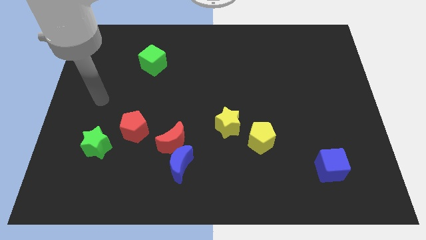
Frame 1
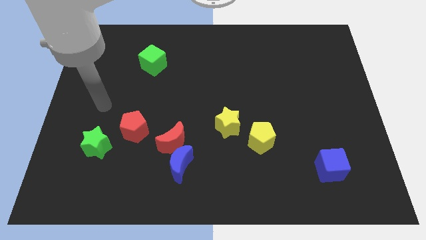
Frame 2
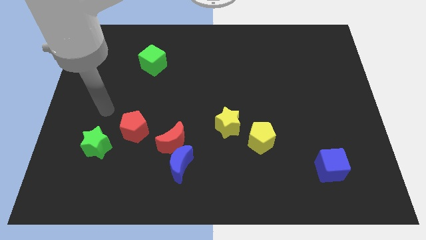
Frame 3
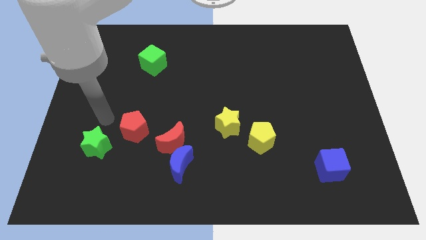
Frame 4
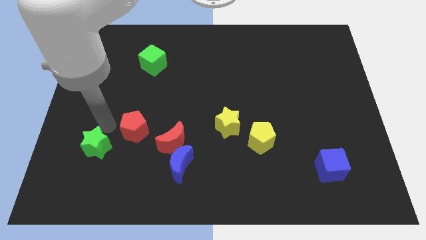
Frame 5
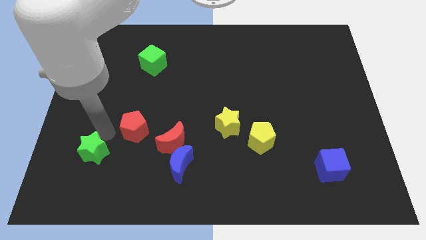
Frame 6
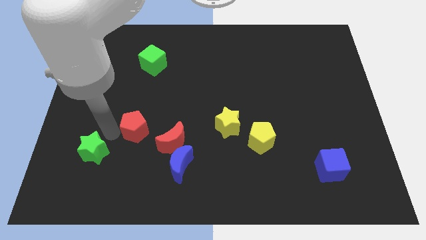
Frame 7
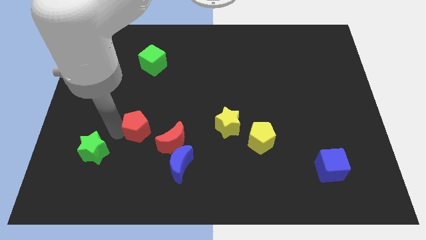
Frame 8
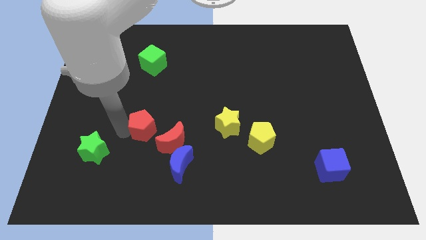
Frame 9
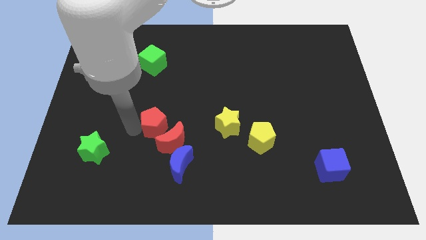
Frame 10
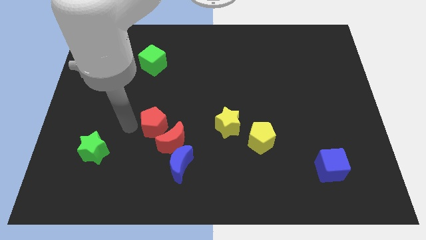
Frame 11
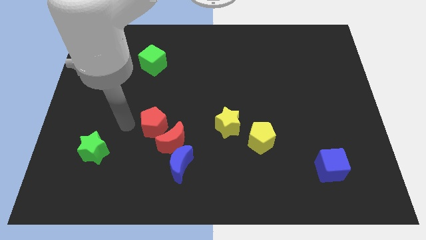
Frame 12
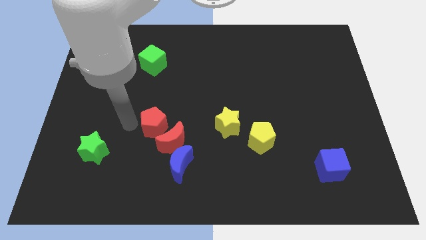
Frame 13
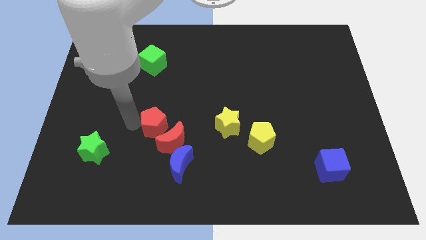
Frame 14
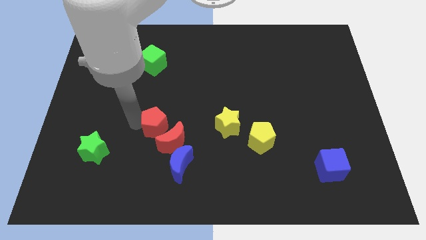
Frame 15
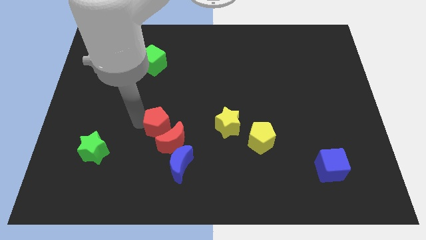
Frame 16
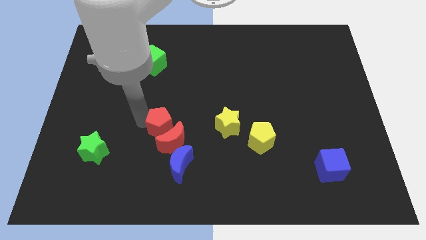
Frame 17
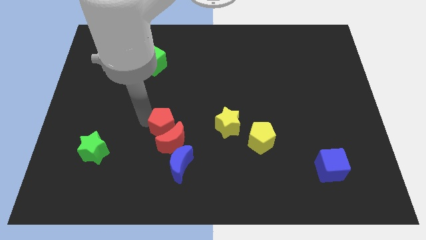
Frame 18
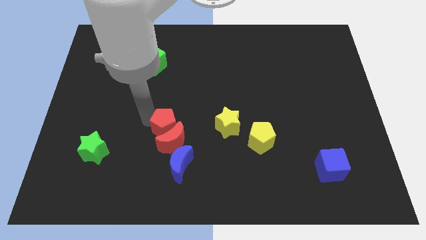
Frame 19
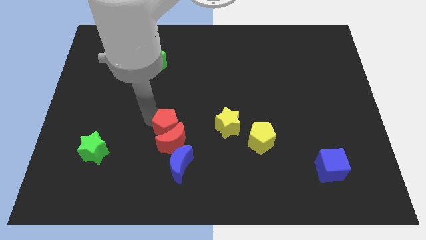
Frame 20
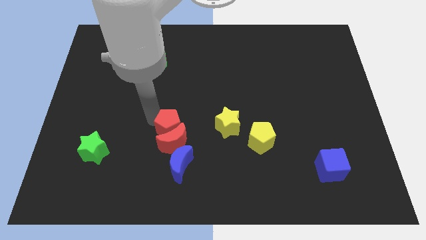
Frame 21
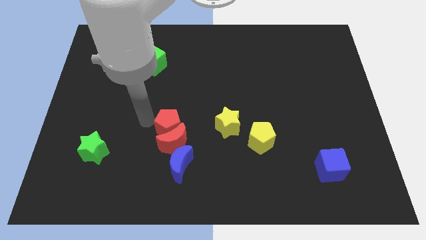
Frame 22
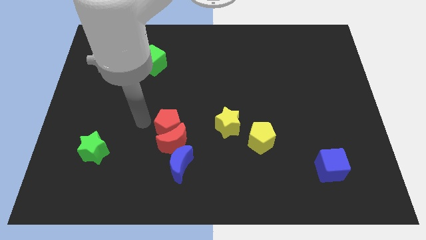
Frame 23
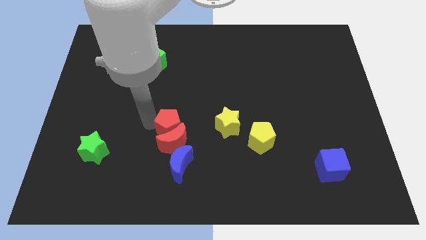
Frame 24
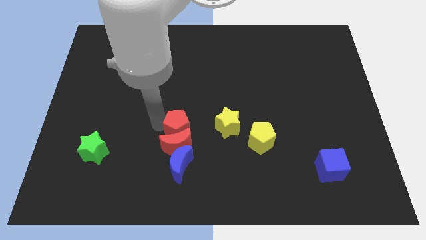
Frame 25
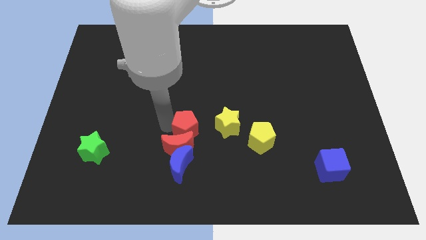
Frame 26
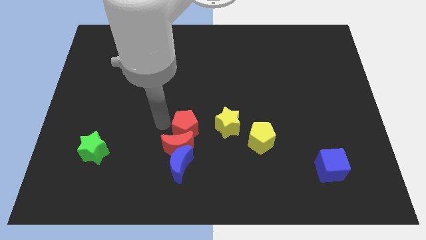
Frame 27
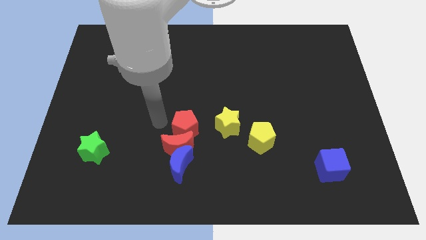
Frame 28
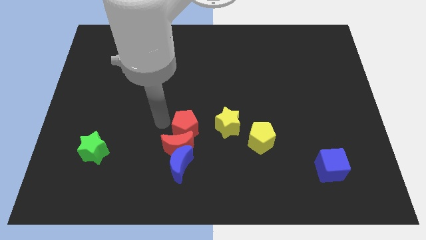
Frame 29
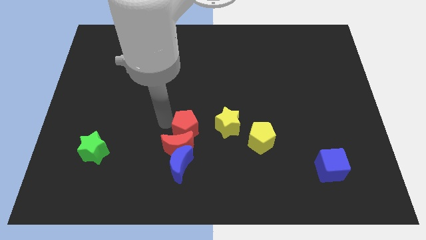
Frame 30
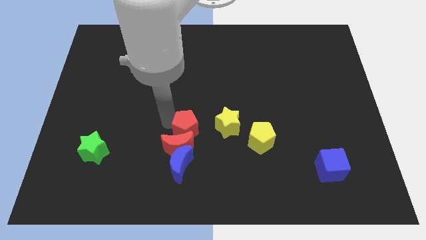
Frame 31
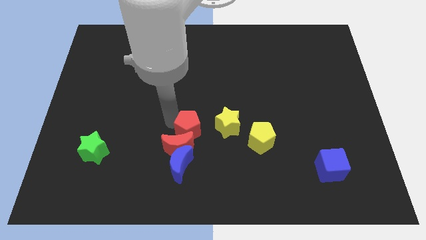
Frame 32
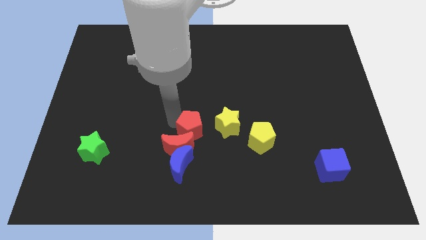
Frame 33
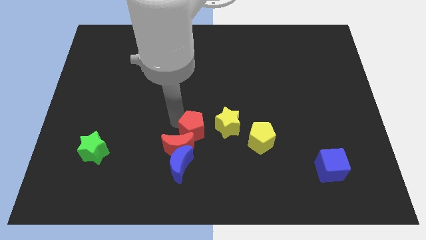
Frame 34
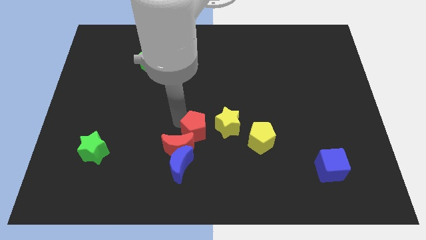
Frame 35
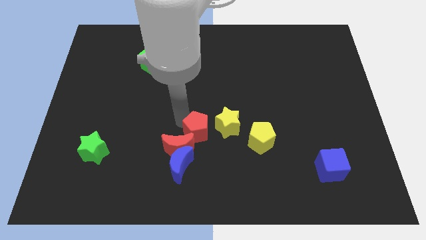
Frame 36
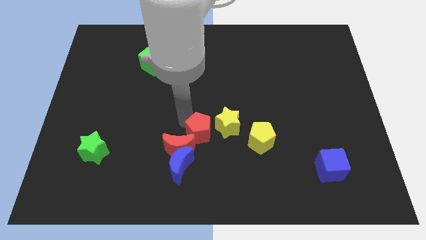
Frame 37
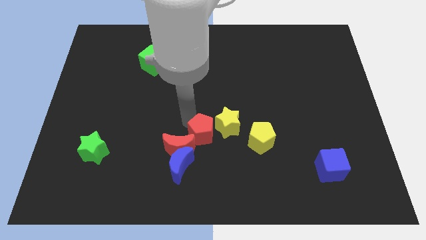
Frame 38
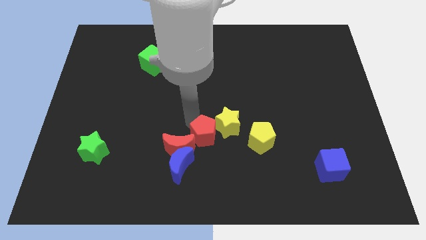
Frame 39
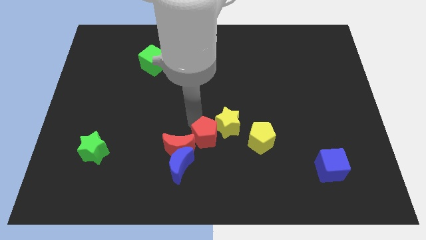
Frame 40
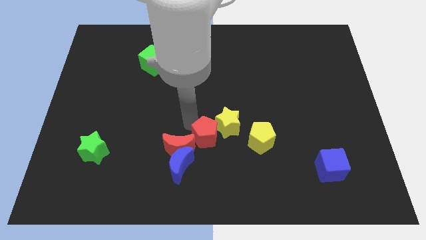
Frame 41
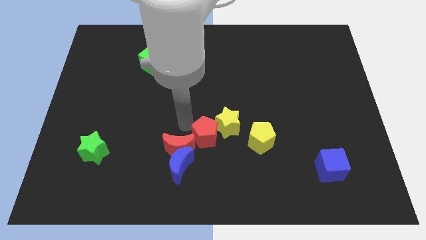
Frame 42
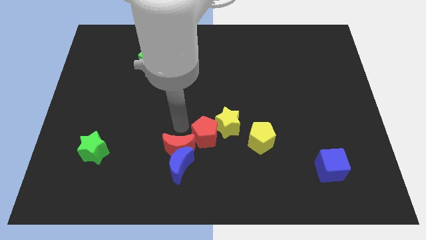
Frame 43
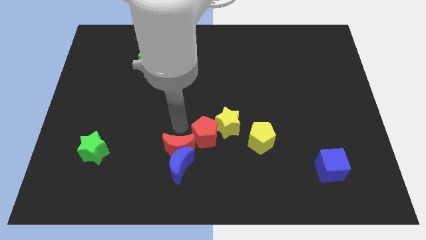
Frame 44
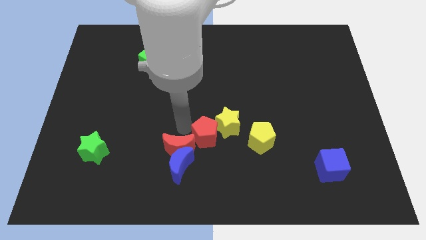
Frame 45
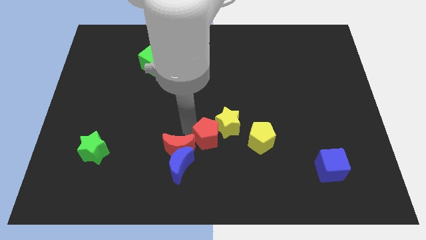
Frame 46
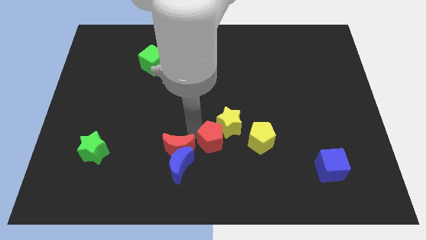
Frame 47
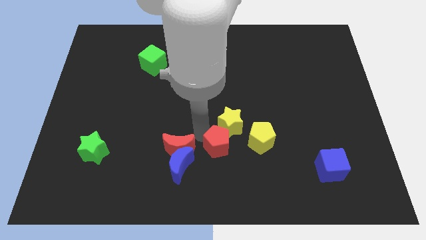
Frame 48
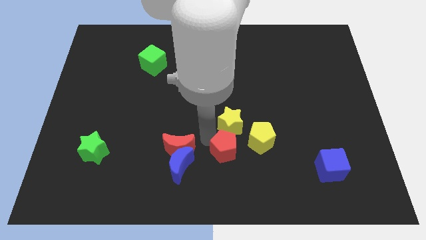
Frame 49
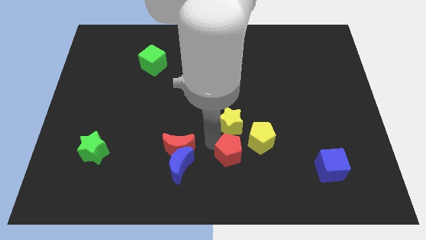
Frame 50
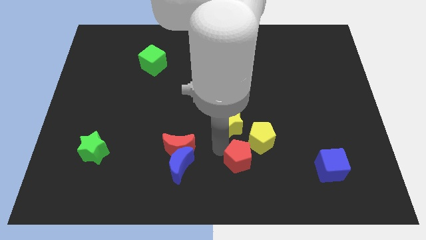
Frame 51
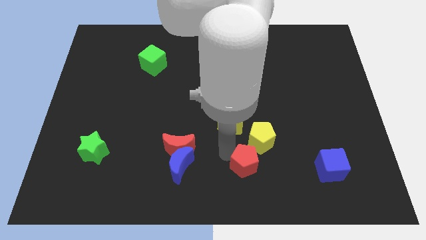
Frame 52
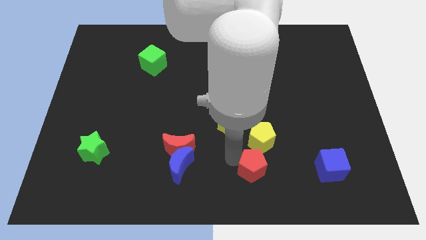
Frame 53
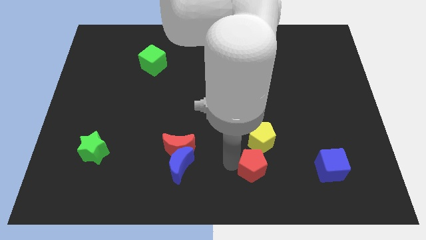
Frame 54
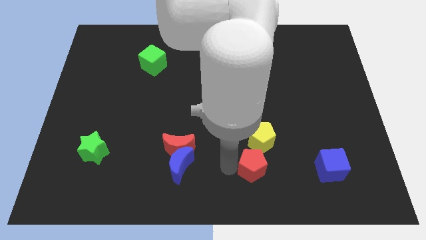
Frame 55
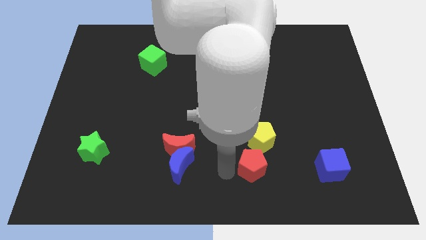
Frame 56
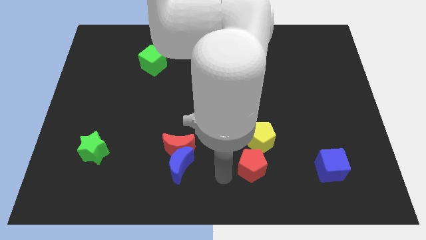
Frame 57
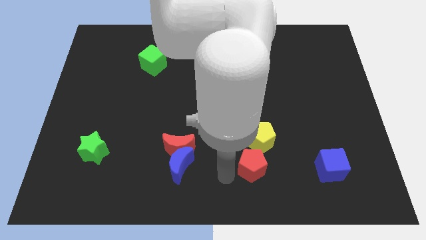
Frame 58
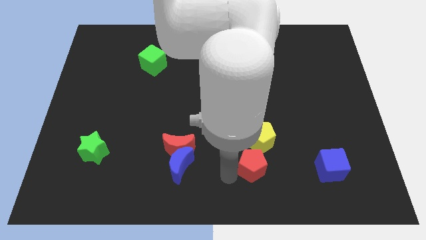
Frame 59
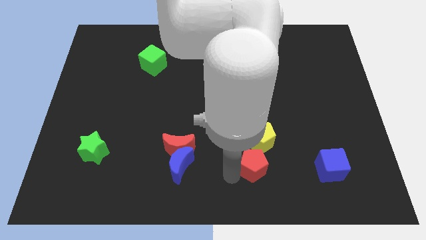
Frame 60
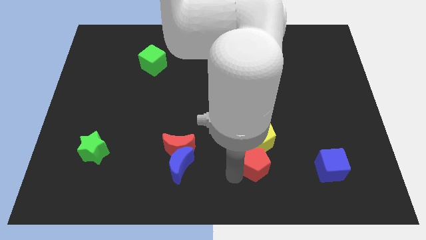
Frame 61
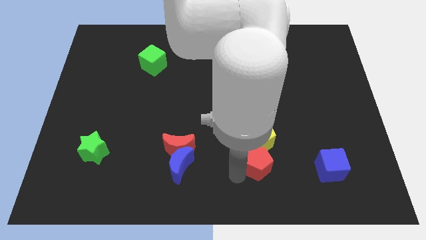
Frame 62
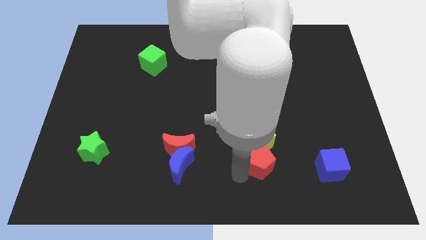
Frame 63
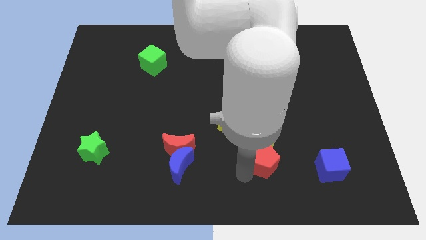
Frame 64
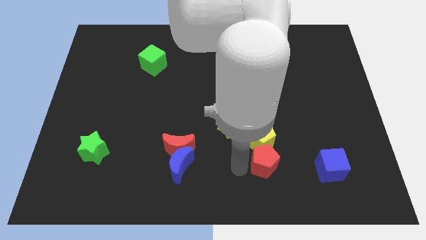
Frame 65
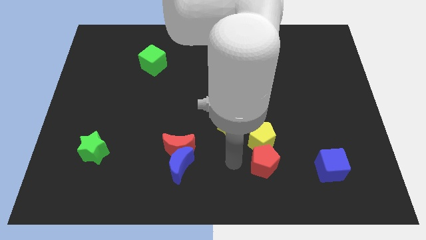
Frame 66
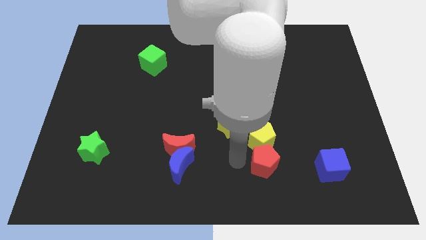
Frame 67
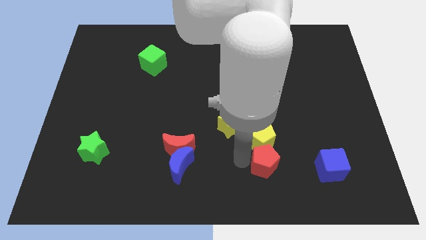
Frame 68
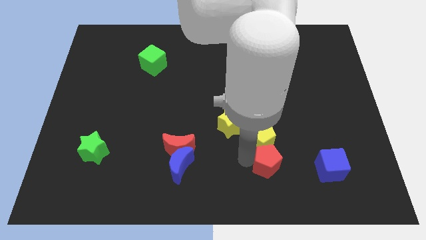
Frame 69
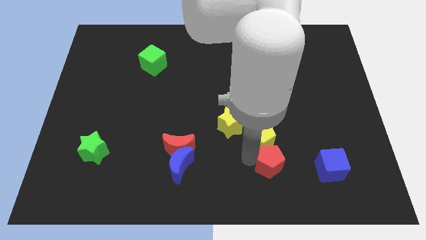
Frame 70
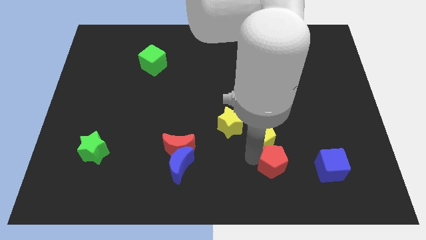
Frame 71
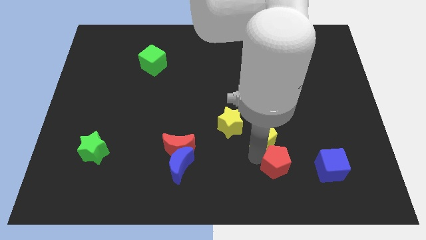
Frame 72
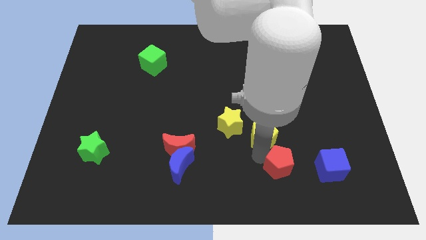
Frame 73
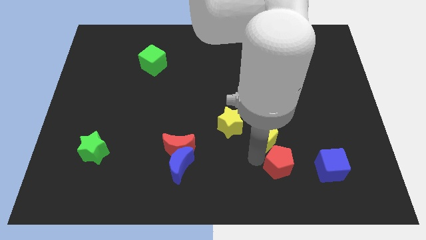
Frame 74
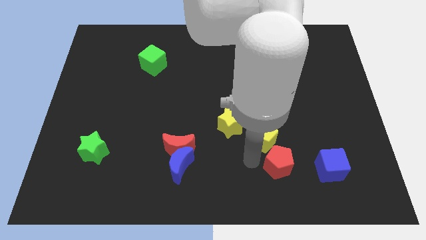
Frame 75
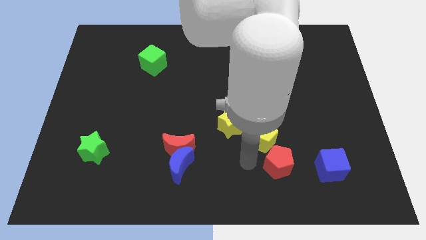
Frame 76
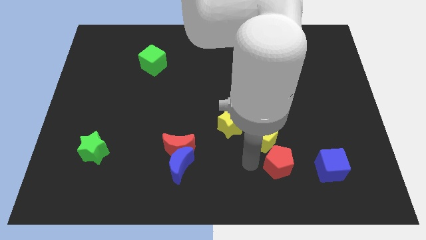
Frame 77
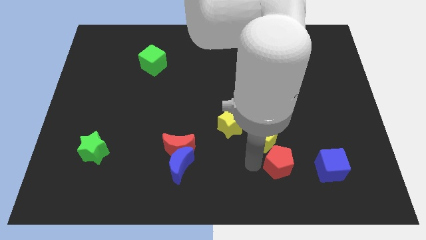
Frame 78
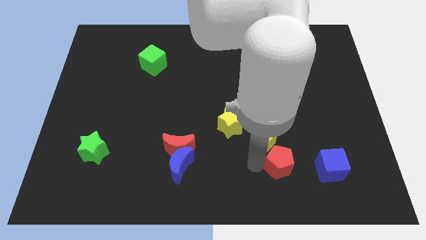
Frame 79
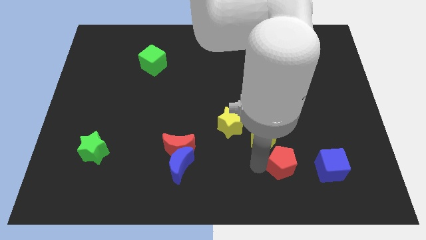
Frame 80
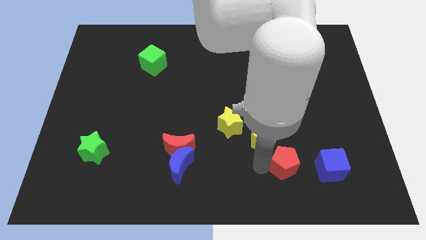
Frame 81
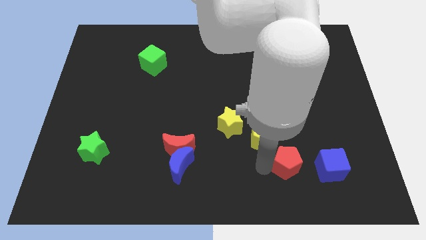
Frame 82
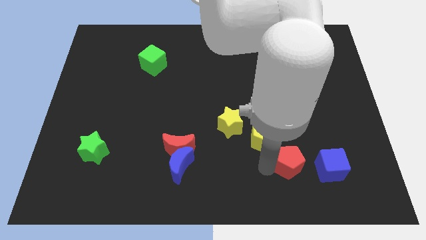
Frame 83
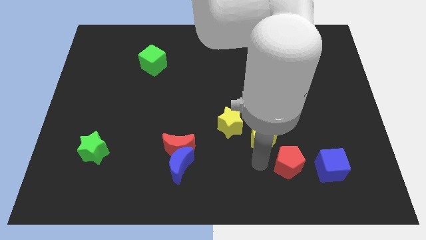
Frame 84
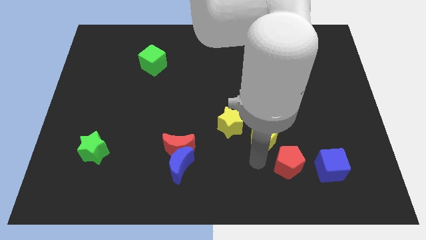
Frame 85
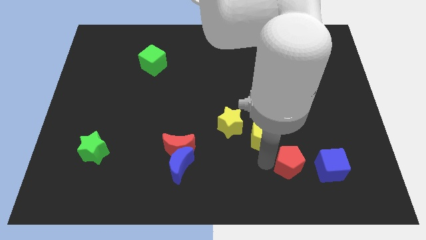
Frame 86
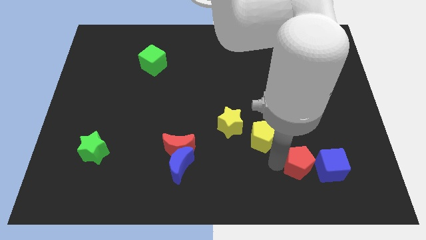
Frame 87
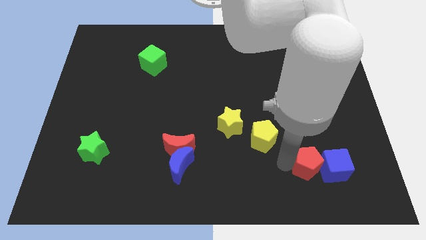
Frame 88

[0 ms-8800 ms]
put the red pentagon towards the blue cube
